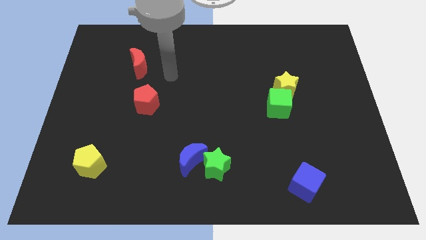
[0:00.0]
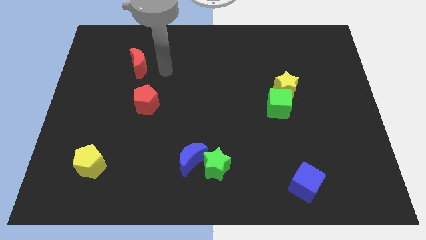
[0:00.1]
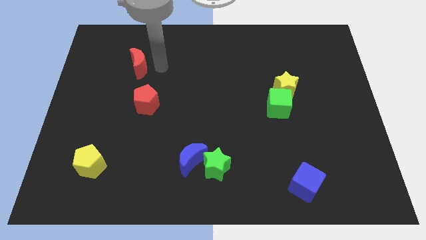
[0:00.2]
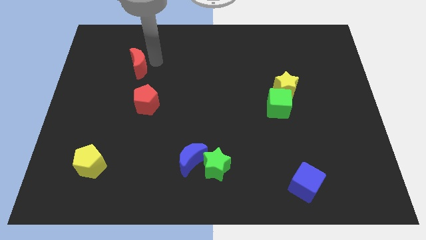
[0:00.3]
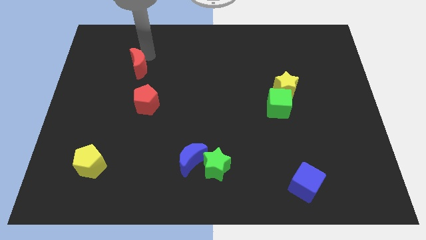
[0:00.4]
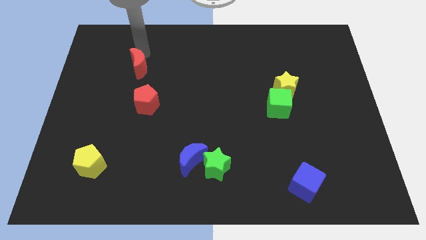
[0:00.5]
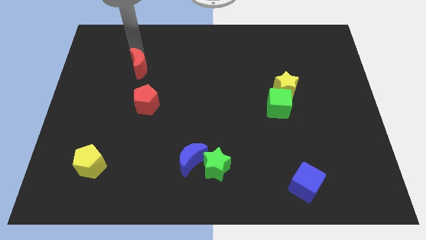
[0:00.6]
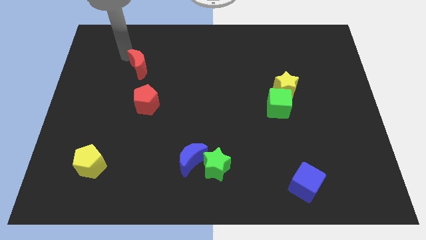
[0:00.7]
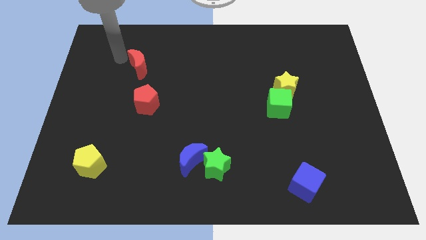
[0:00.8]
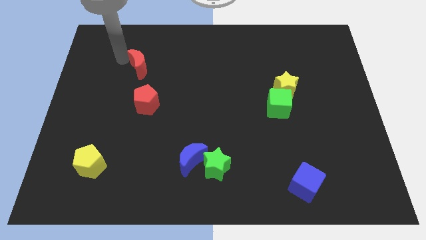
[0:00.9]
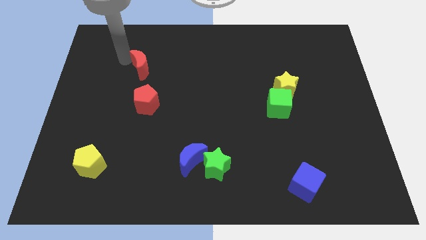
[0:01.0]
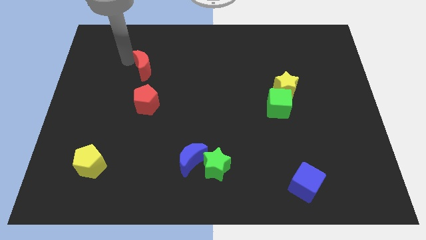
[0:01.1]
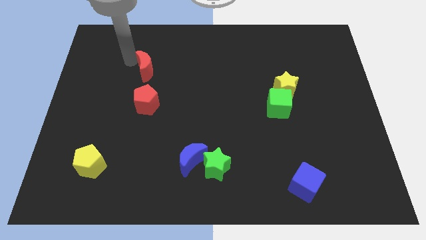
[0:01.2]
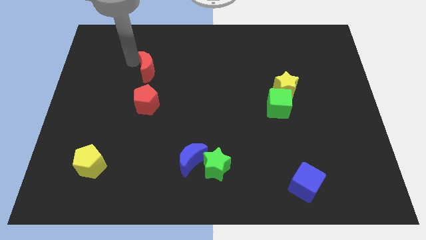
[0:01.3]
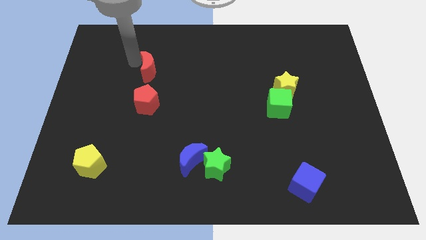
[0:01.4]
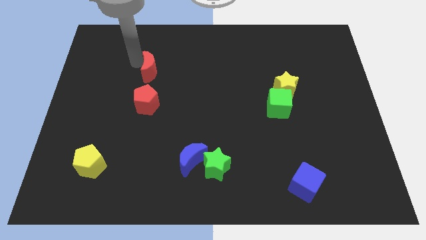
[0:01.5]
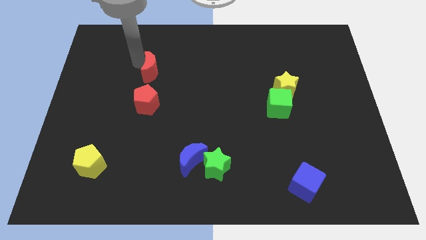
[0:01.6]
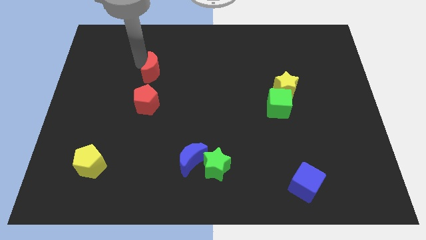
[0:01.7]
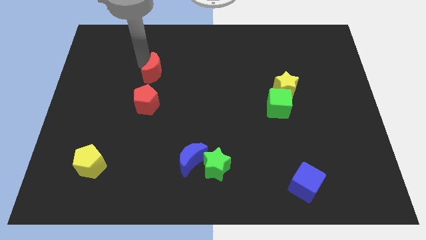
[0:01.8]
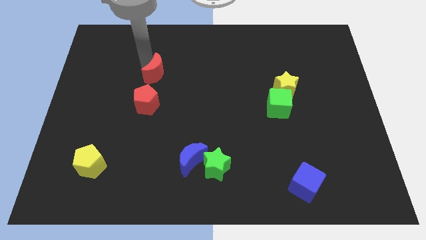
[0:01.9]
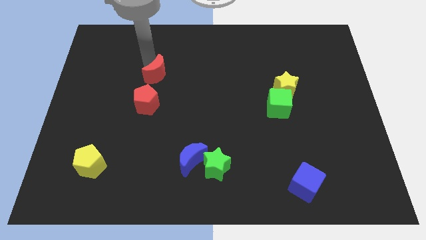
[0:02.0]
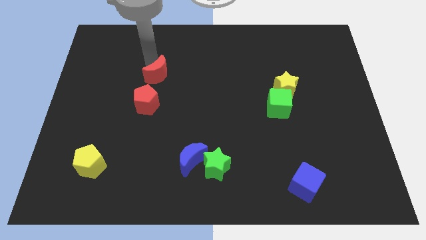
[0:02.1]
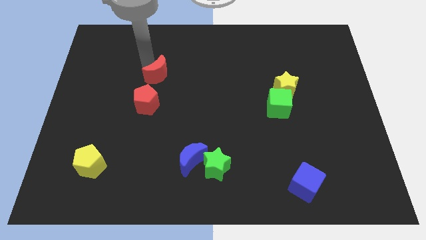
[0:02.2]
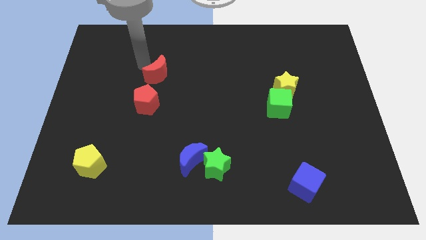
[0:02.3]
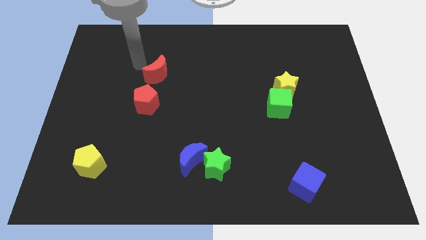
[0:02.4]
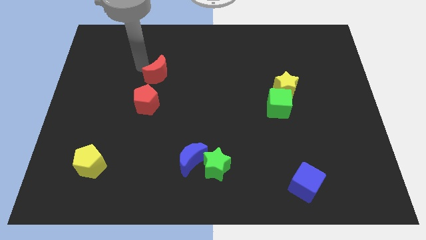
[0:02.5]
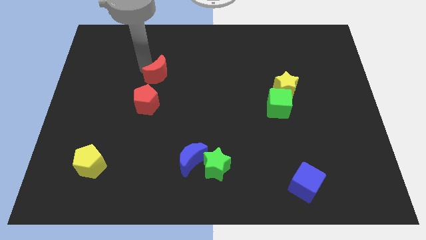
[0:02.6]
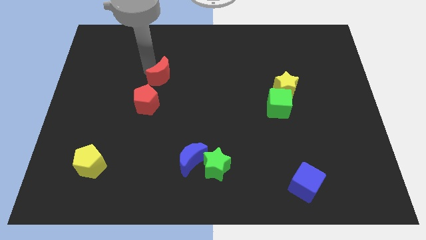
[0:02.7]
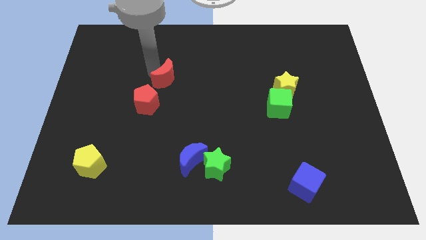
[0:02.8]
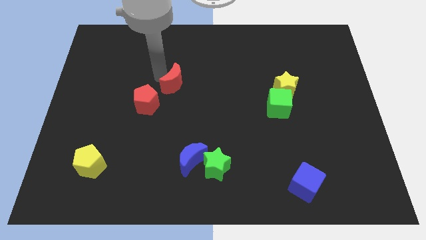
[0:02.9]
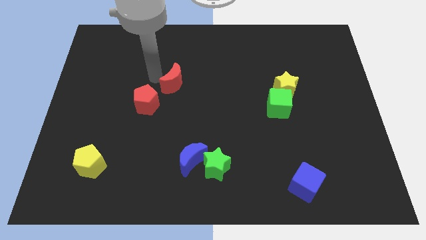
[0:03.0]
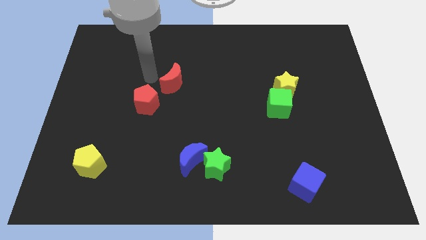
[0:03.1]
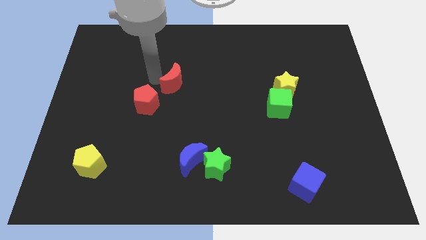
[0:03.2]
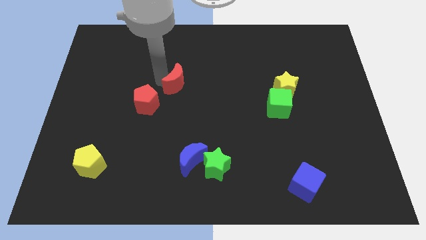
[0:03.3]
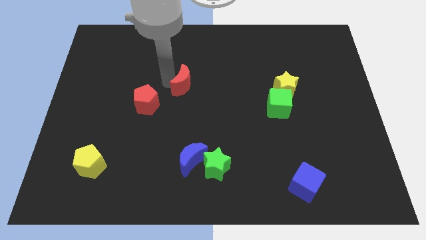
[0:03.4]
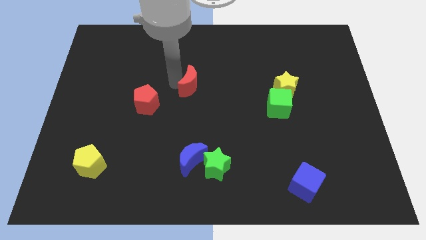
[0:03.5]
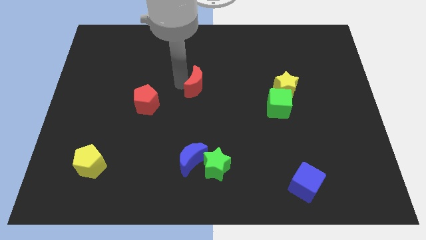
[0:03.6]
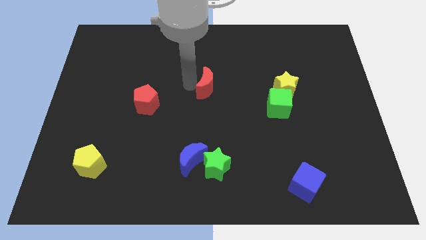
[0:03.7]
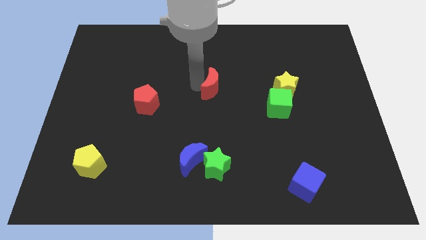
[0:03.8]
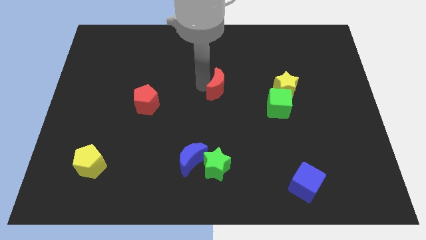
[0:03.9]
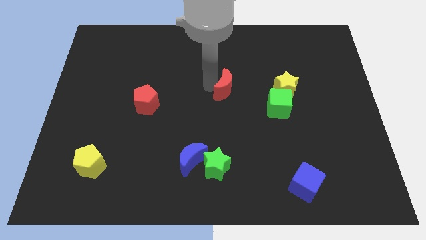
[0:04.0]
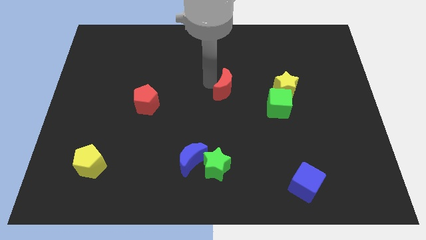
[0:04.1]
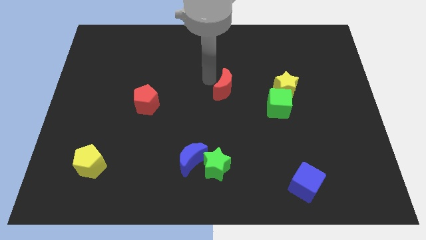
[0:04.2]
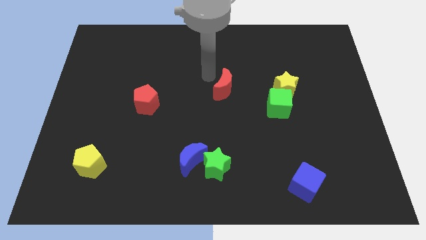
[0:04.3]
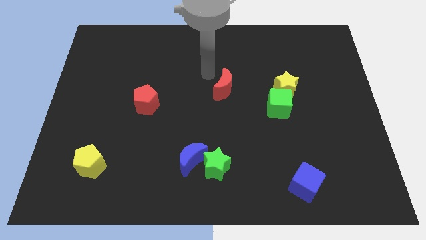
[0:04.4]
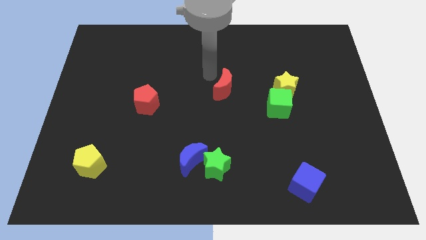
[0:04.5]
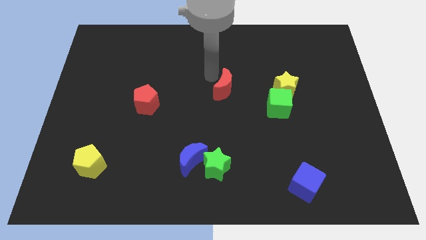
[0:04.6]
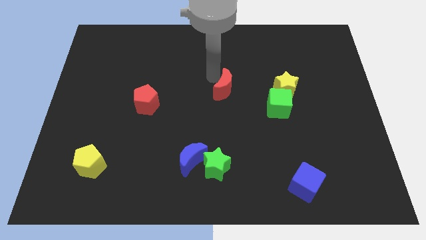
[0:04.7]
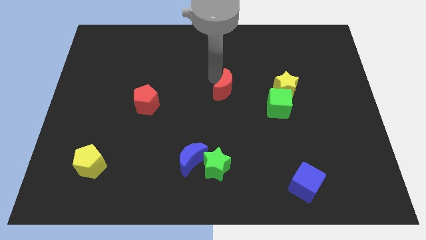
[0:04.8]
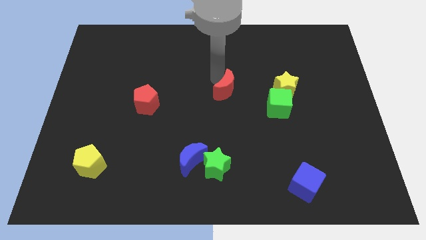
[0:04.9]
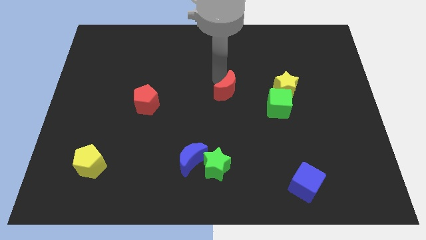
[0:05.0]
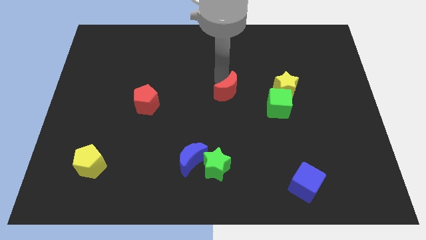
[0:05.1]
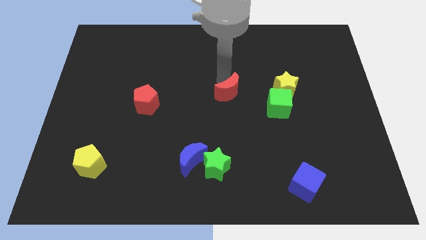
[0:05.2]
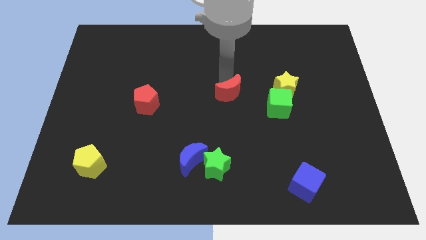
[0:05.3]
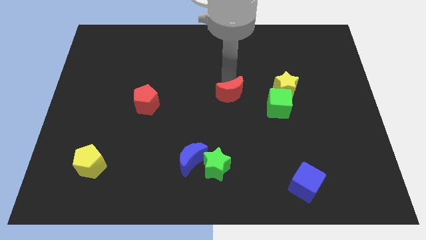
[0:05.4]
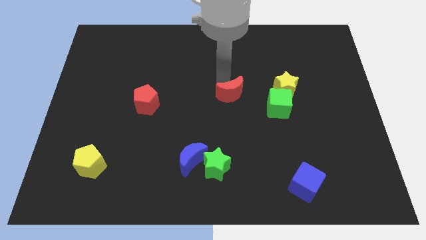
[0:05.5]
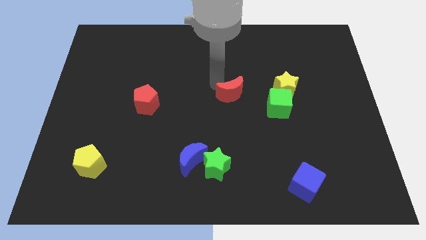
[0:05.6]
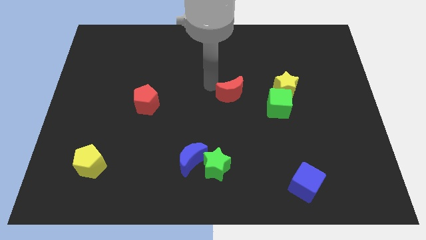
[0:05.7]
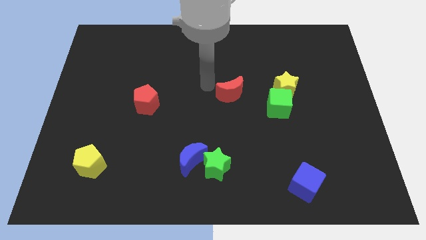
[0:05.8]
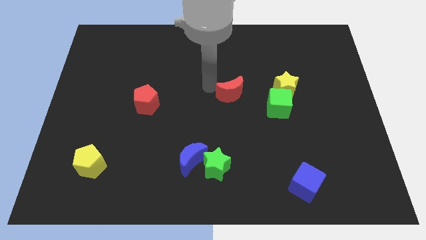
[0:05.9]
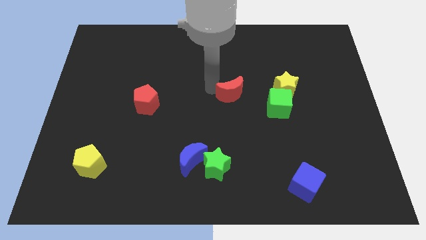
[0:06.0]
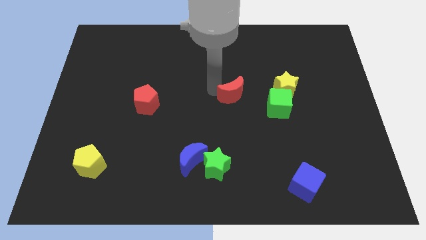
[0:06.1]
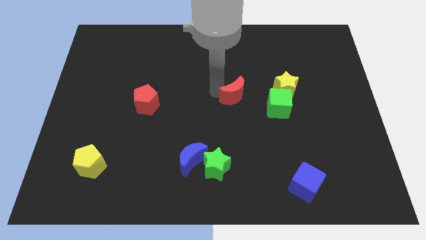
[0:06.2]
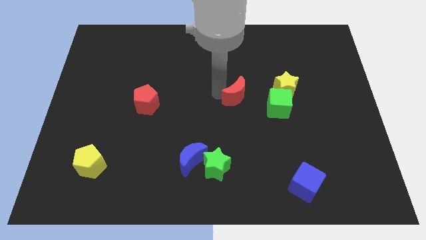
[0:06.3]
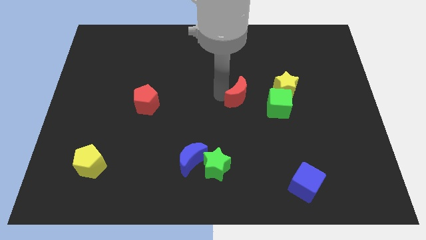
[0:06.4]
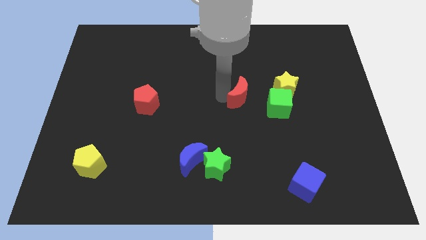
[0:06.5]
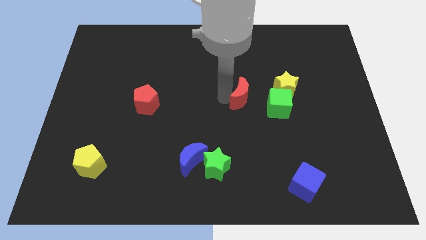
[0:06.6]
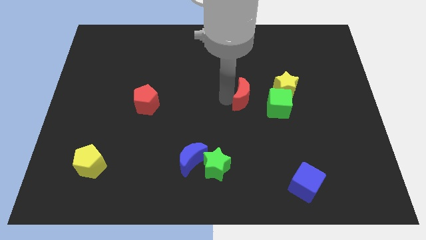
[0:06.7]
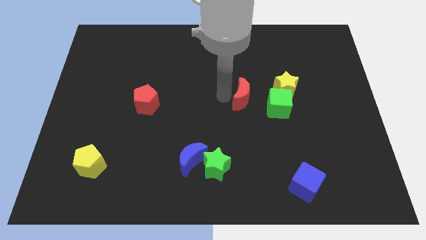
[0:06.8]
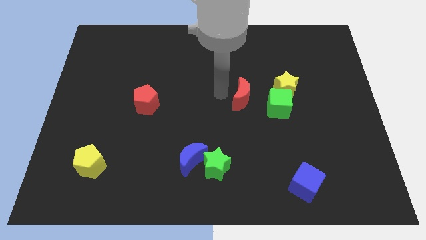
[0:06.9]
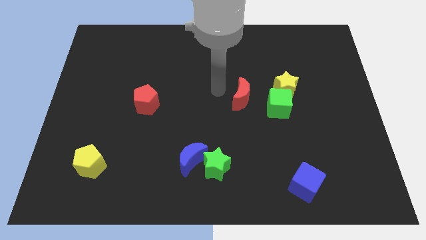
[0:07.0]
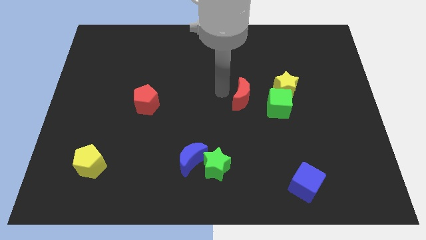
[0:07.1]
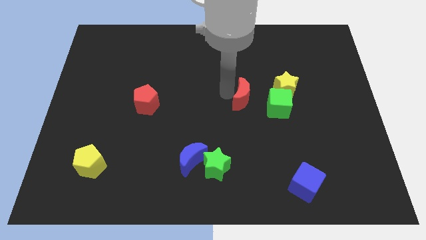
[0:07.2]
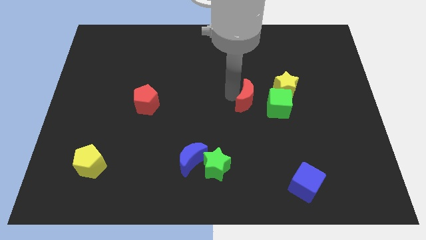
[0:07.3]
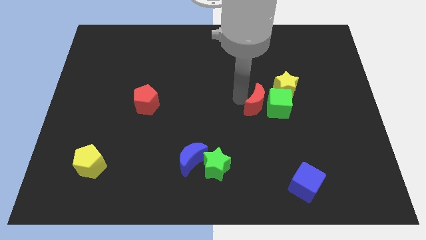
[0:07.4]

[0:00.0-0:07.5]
move the red moon to the green cube
